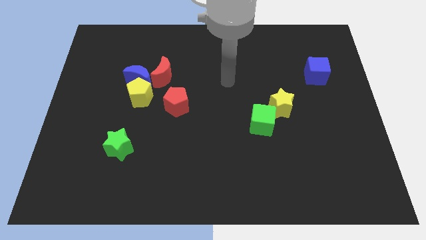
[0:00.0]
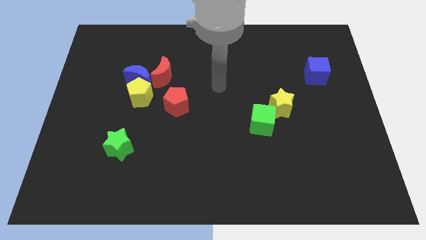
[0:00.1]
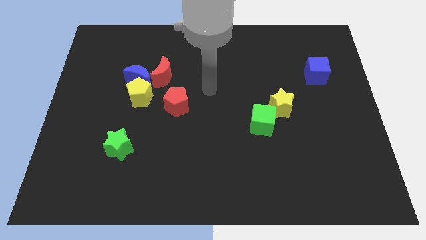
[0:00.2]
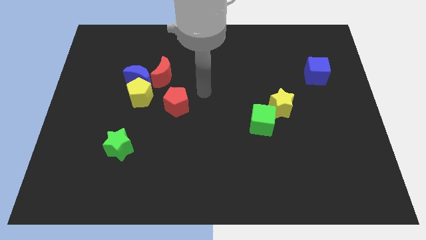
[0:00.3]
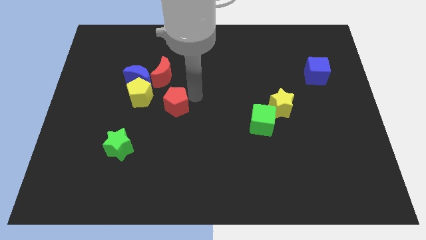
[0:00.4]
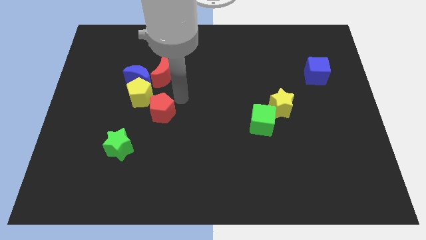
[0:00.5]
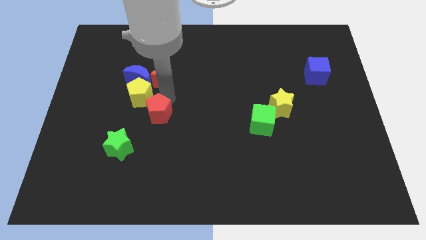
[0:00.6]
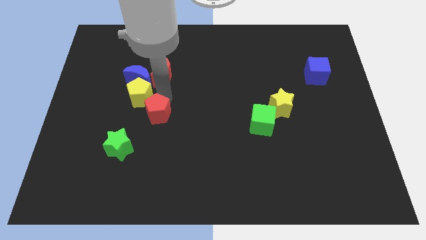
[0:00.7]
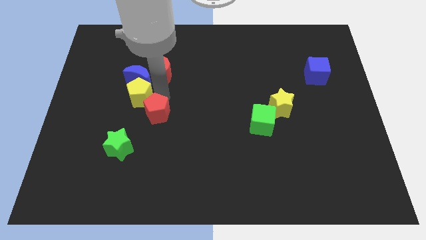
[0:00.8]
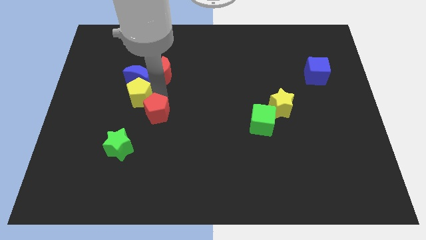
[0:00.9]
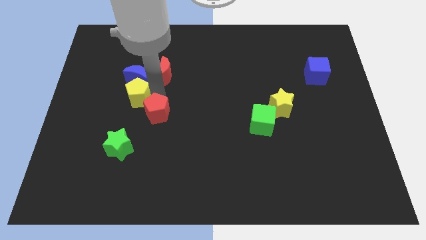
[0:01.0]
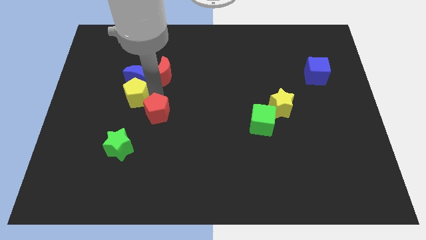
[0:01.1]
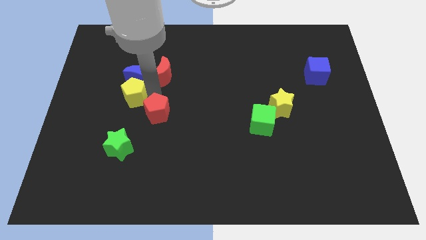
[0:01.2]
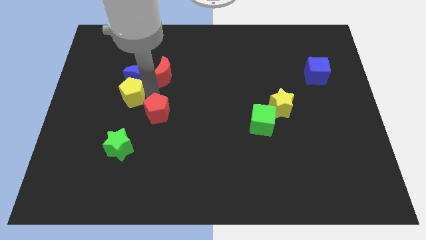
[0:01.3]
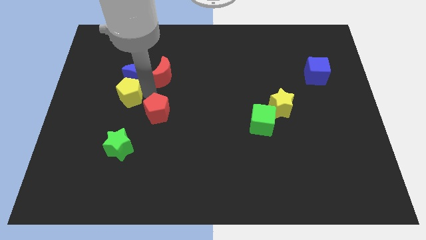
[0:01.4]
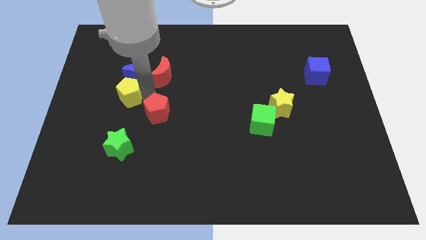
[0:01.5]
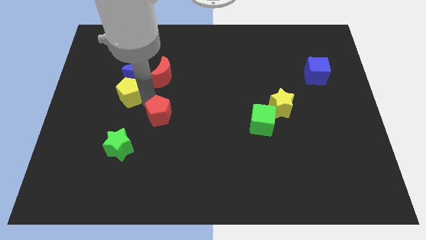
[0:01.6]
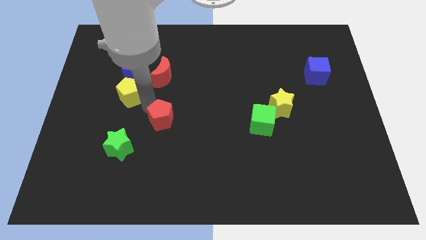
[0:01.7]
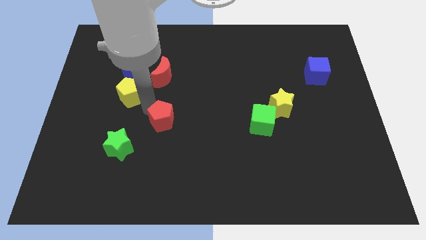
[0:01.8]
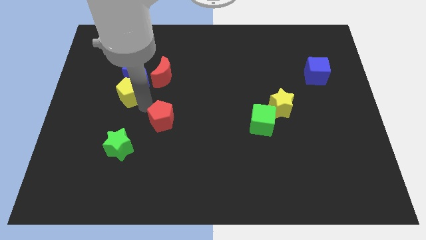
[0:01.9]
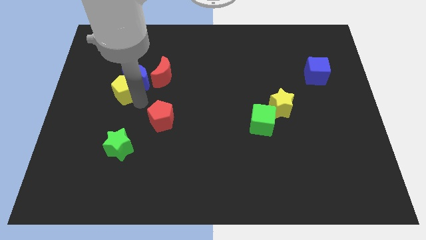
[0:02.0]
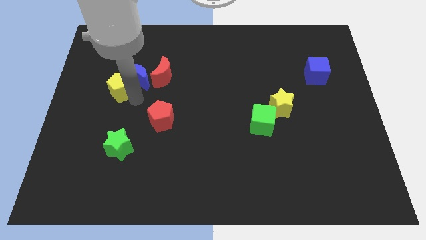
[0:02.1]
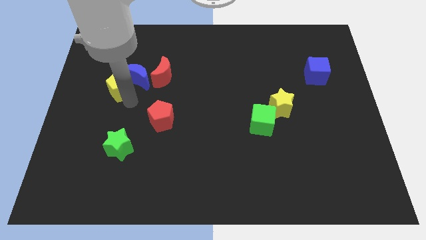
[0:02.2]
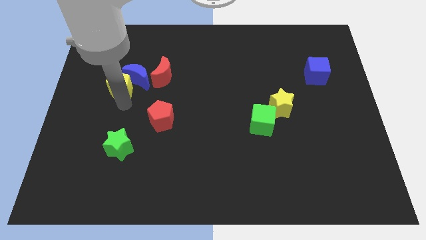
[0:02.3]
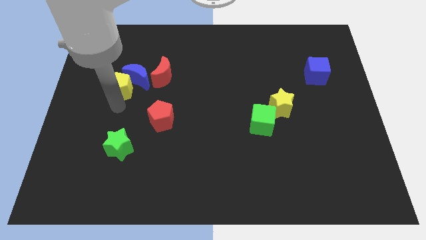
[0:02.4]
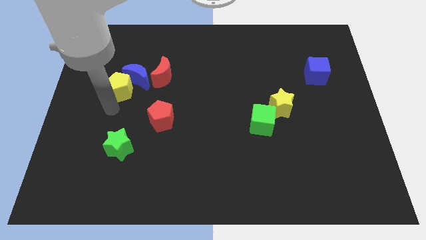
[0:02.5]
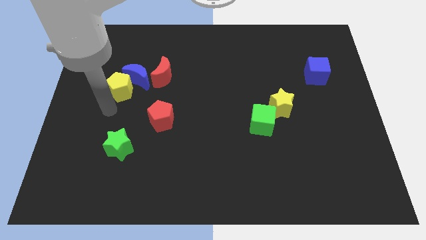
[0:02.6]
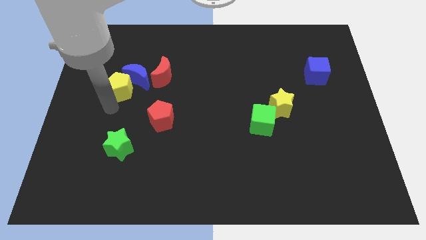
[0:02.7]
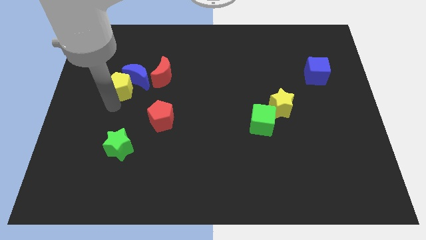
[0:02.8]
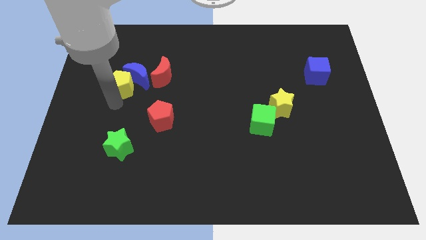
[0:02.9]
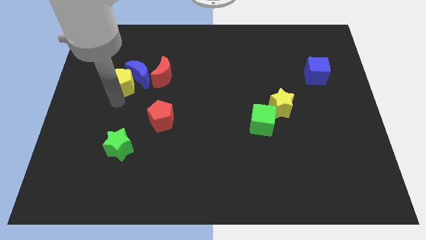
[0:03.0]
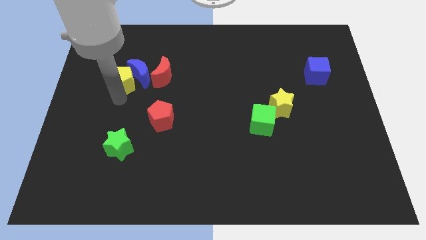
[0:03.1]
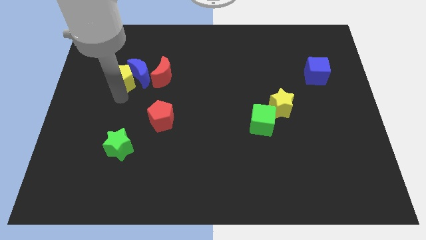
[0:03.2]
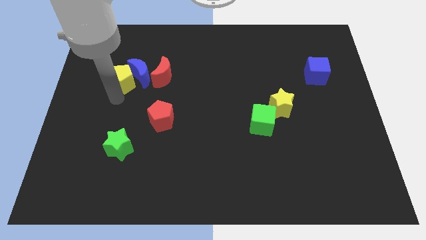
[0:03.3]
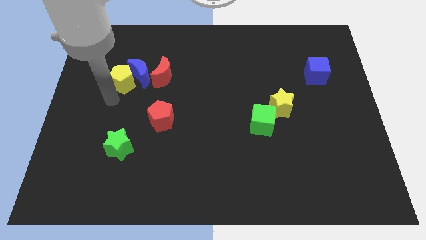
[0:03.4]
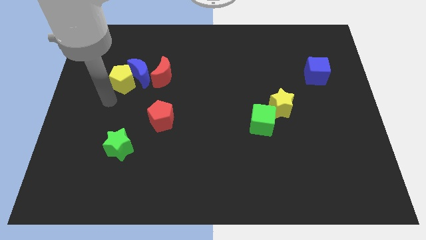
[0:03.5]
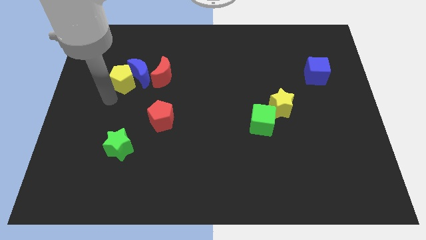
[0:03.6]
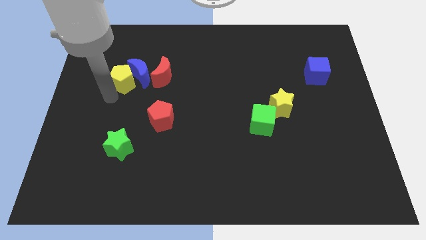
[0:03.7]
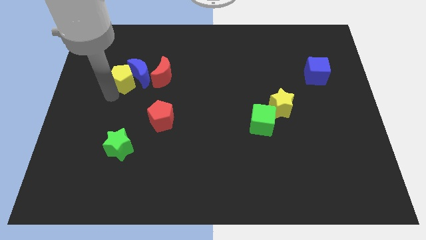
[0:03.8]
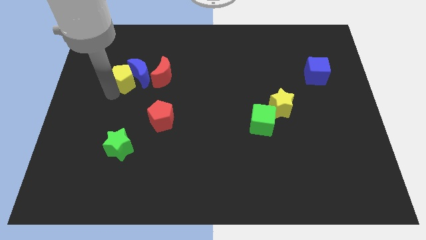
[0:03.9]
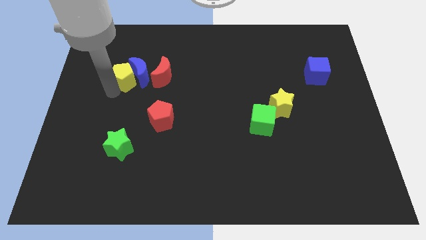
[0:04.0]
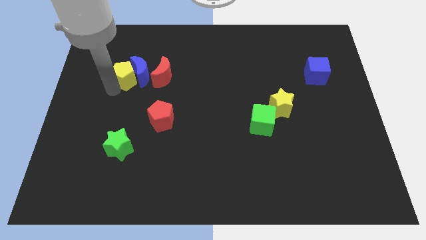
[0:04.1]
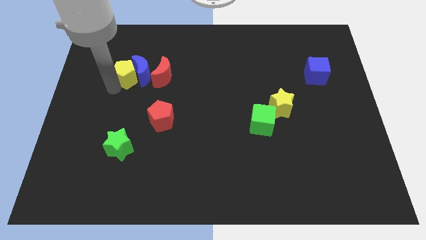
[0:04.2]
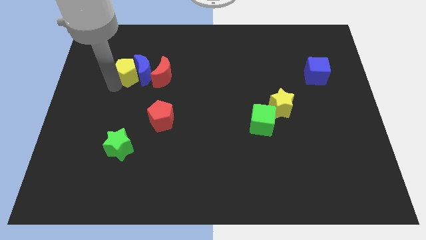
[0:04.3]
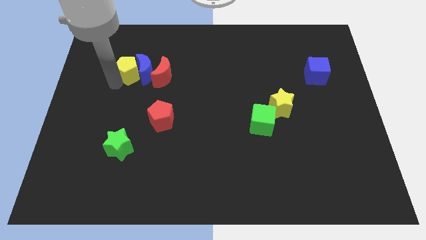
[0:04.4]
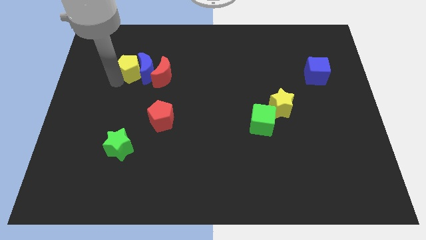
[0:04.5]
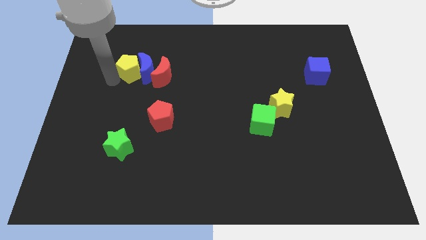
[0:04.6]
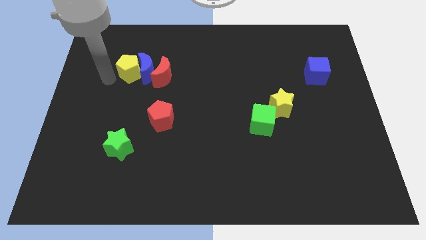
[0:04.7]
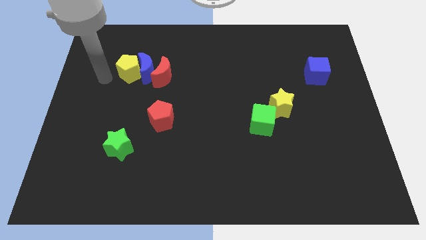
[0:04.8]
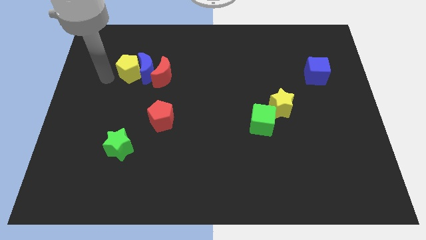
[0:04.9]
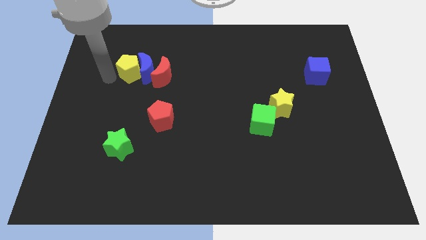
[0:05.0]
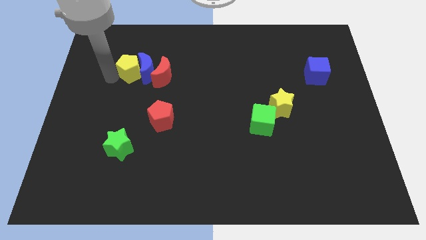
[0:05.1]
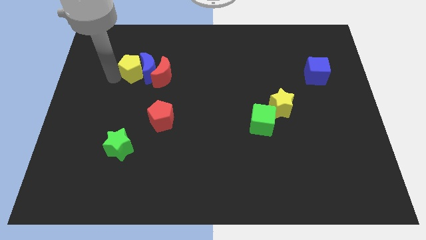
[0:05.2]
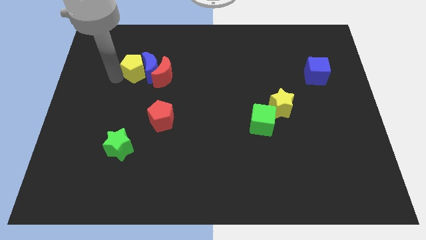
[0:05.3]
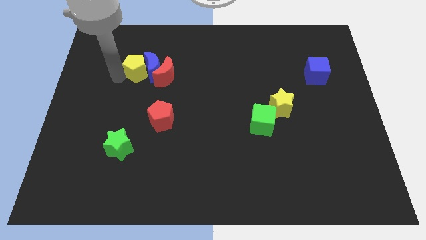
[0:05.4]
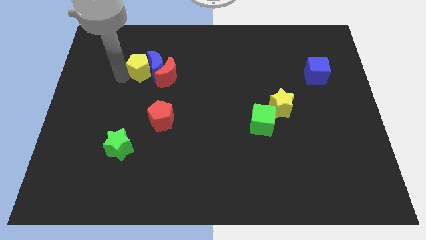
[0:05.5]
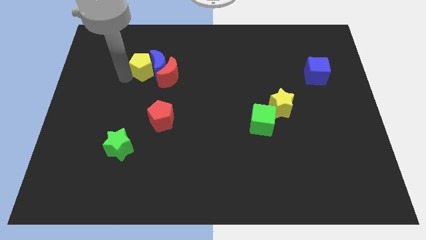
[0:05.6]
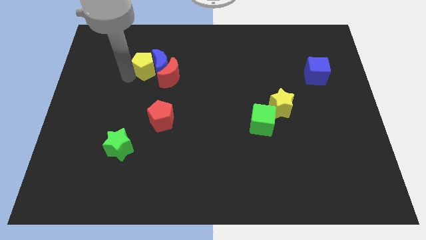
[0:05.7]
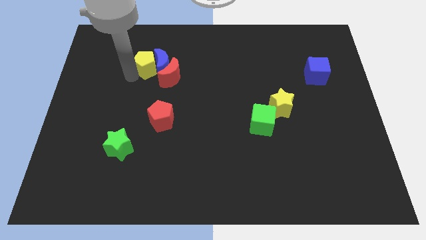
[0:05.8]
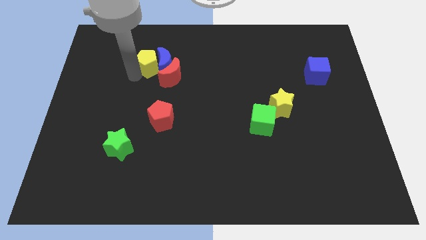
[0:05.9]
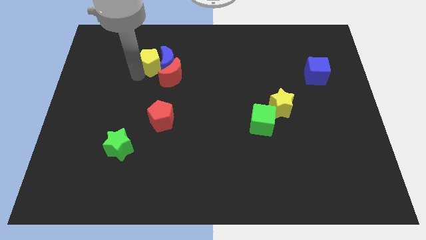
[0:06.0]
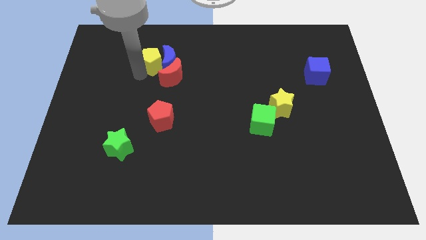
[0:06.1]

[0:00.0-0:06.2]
push the yellow pentagon a bit upwards and to the right diagonally

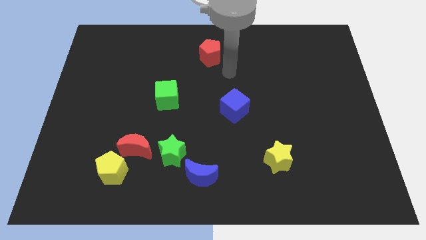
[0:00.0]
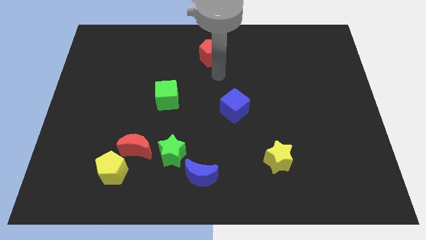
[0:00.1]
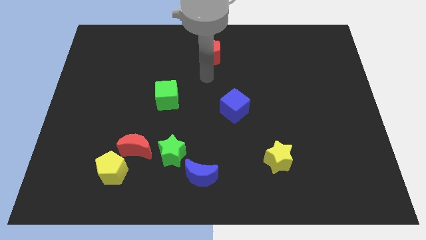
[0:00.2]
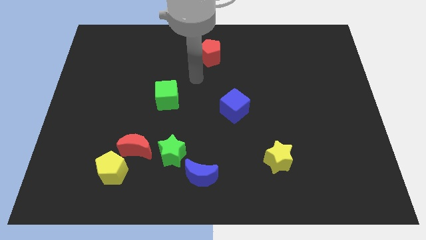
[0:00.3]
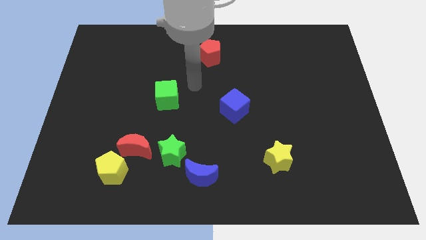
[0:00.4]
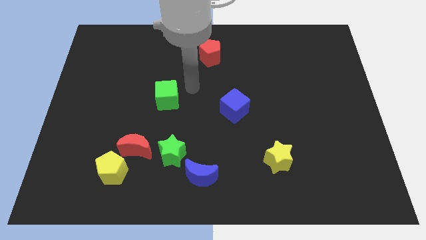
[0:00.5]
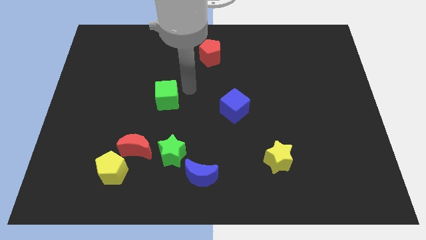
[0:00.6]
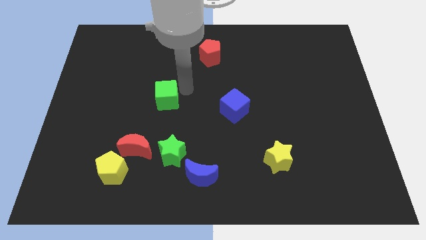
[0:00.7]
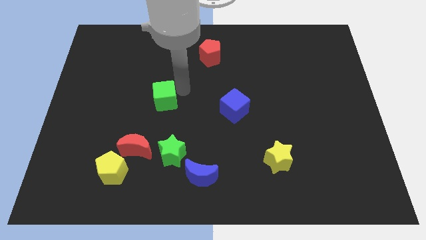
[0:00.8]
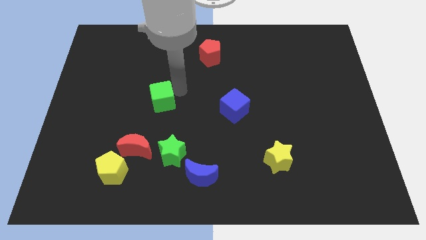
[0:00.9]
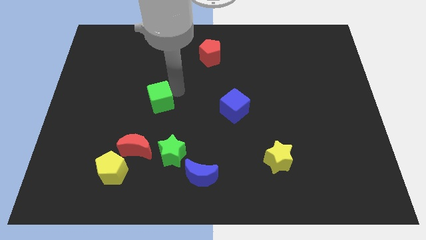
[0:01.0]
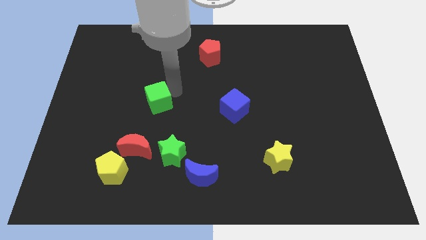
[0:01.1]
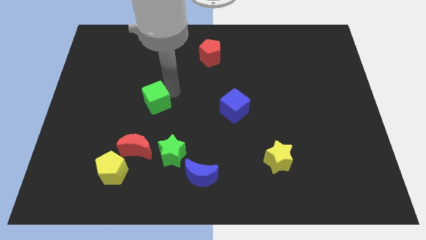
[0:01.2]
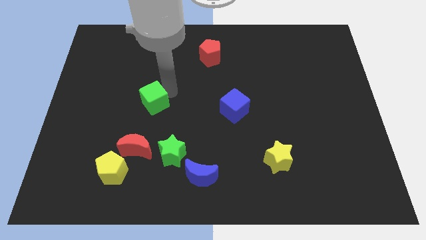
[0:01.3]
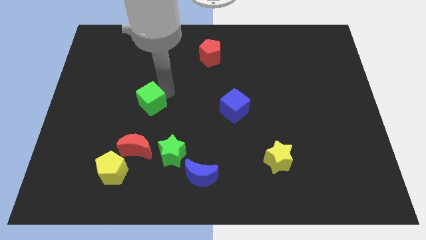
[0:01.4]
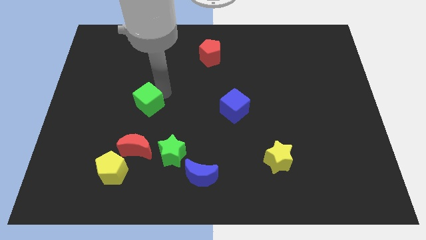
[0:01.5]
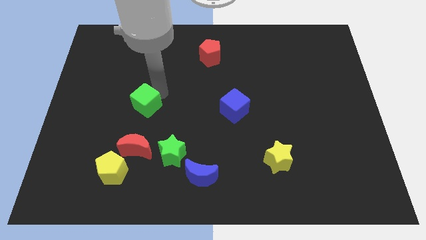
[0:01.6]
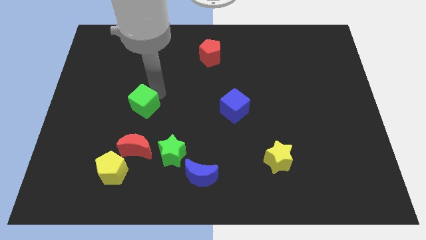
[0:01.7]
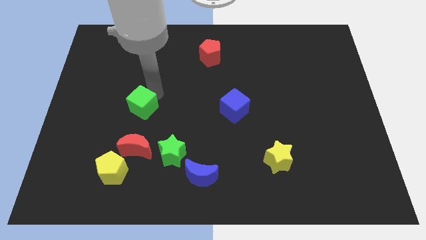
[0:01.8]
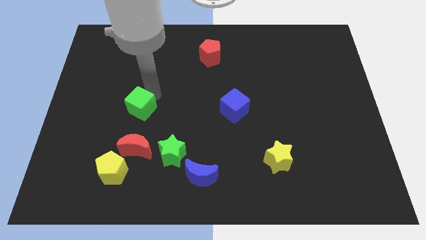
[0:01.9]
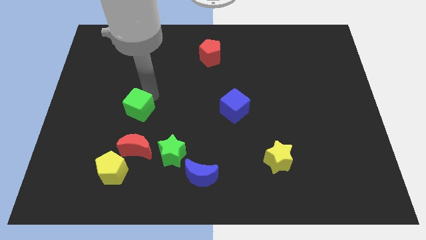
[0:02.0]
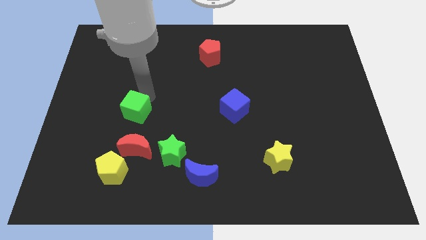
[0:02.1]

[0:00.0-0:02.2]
push the green cube a little diagonally down and to the left
